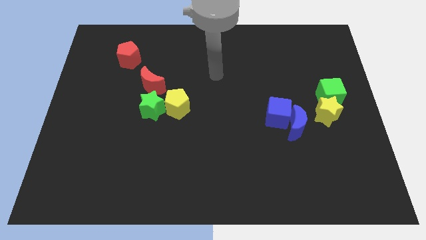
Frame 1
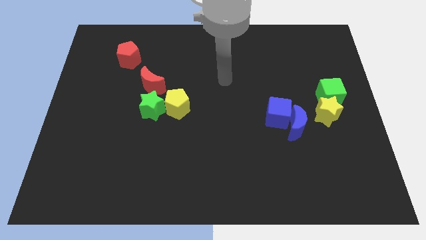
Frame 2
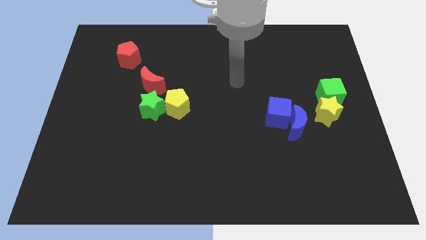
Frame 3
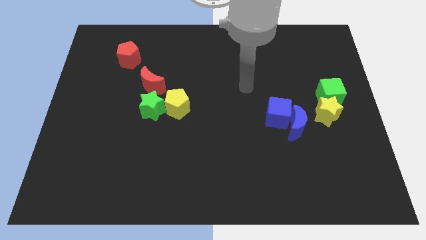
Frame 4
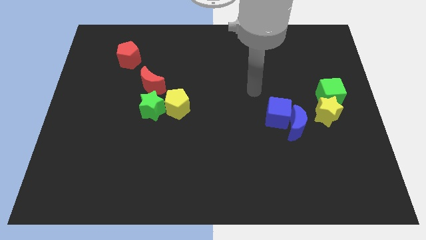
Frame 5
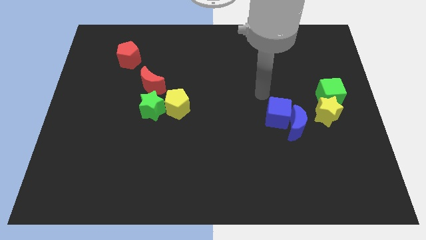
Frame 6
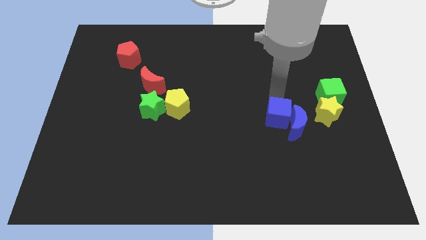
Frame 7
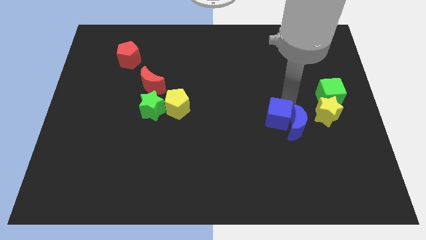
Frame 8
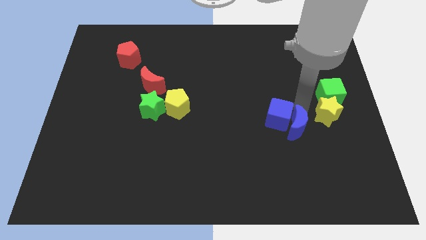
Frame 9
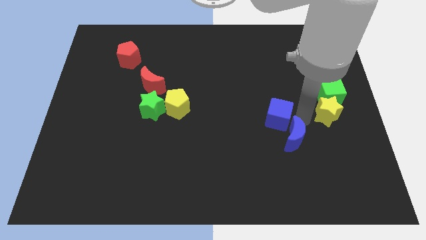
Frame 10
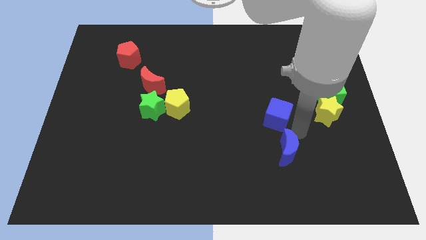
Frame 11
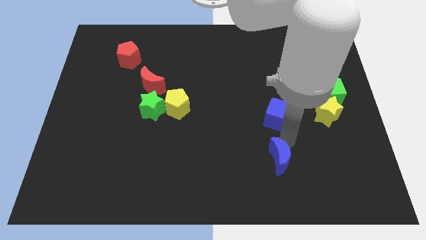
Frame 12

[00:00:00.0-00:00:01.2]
move the blue cube away from the blue moon

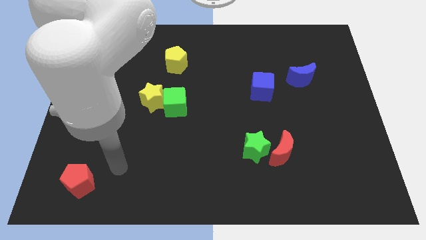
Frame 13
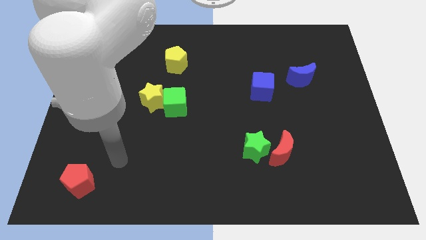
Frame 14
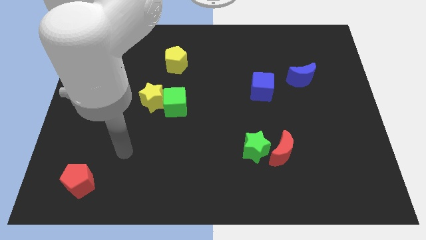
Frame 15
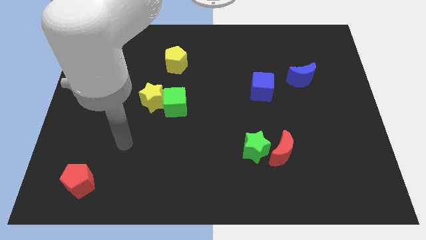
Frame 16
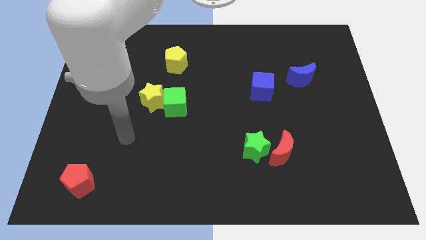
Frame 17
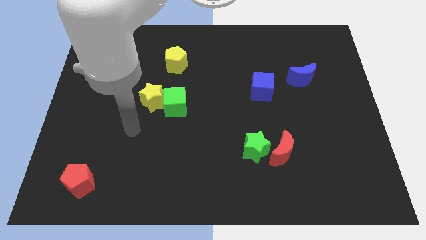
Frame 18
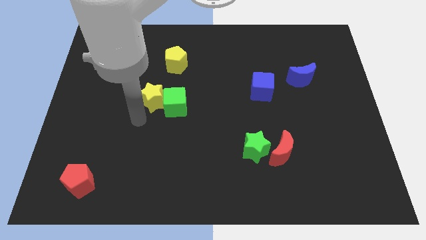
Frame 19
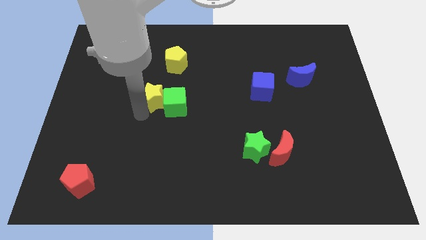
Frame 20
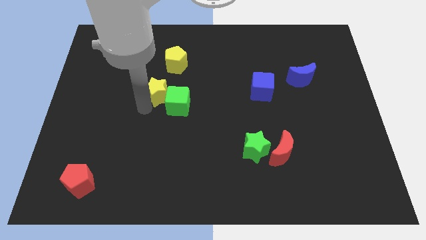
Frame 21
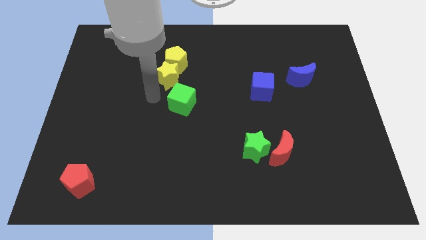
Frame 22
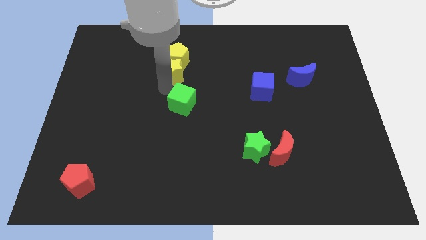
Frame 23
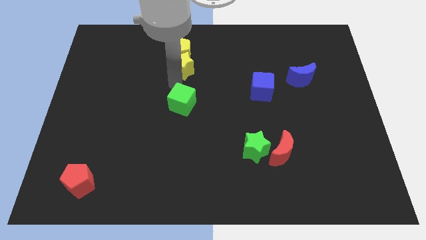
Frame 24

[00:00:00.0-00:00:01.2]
separate the green cube from the yellow star

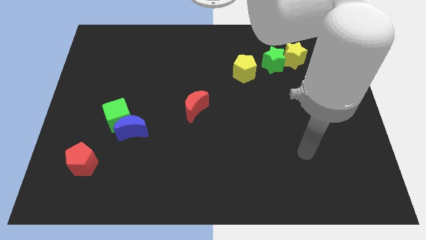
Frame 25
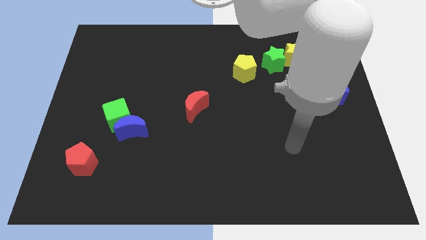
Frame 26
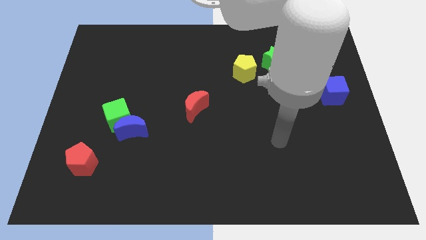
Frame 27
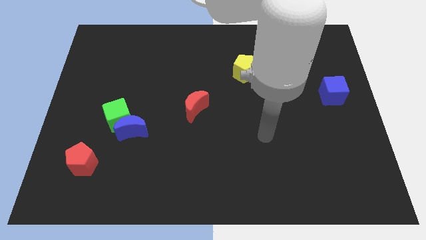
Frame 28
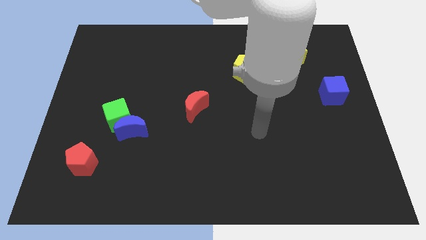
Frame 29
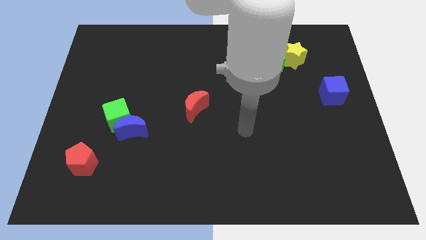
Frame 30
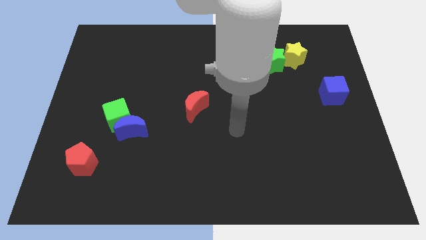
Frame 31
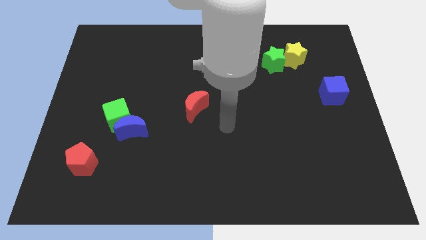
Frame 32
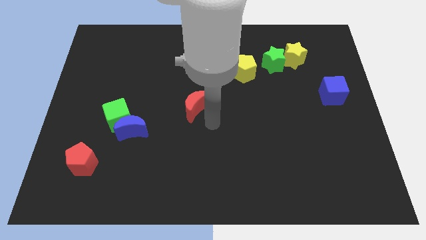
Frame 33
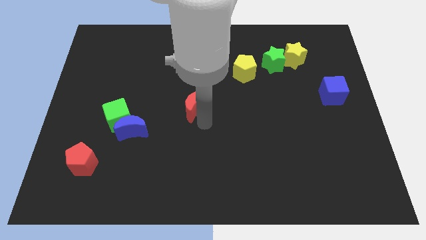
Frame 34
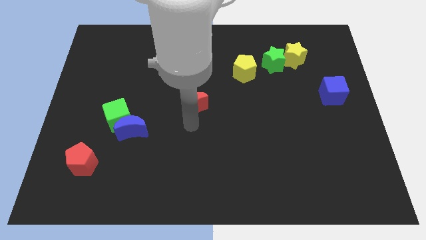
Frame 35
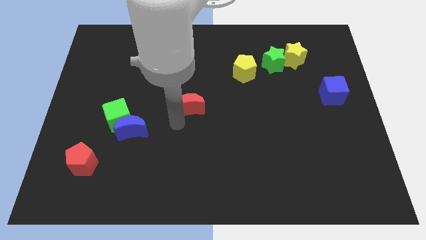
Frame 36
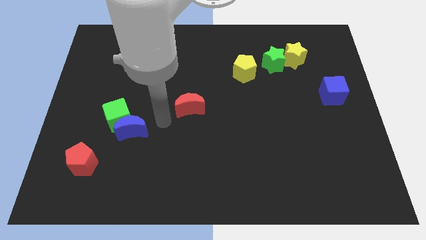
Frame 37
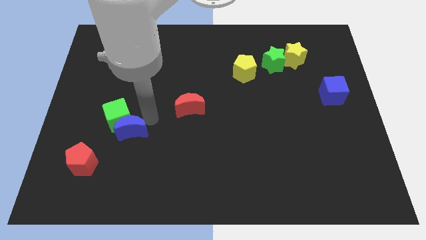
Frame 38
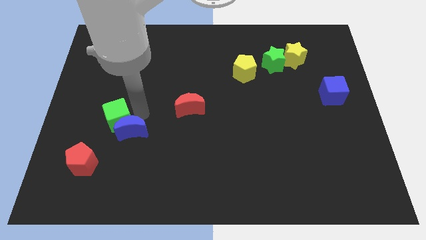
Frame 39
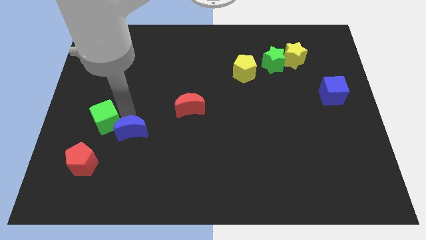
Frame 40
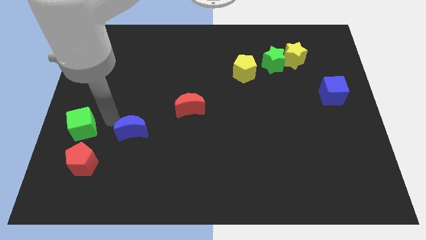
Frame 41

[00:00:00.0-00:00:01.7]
separate the blue moon from the green cube

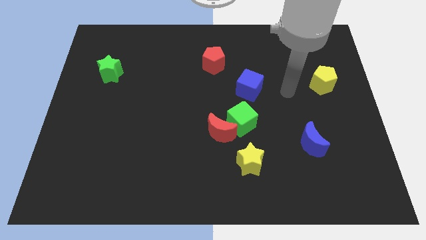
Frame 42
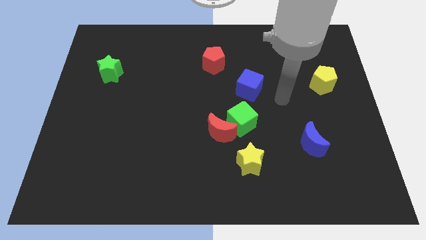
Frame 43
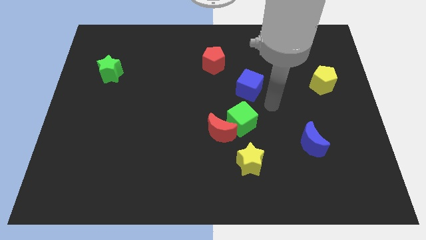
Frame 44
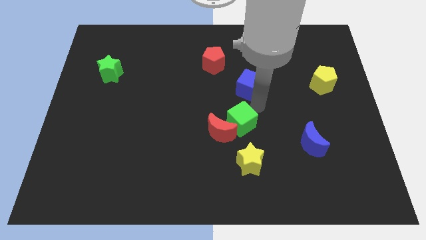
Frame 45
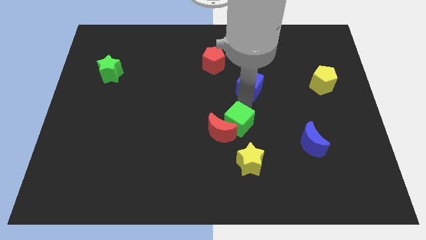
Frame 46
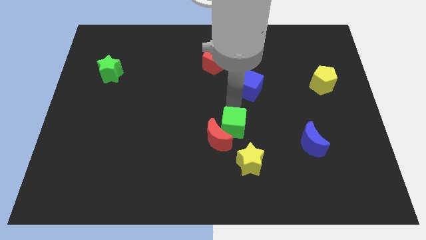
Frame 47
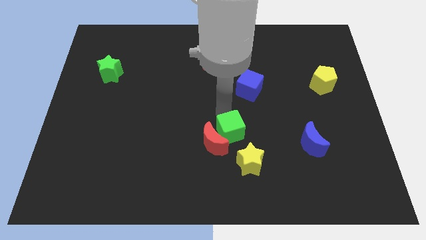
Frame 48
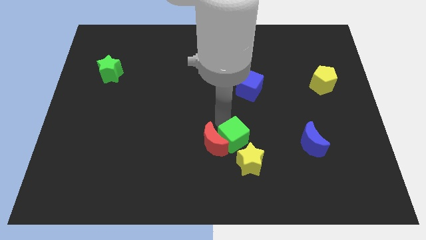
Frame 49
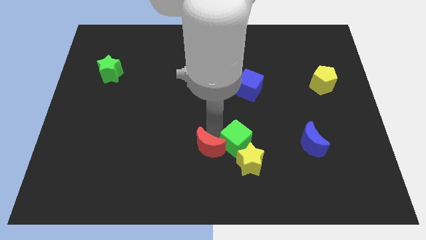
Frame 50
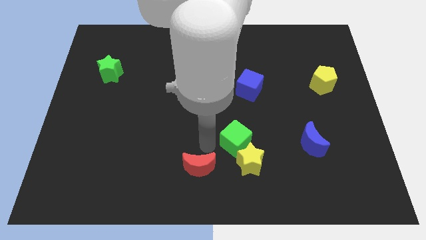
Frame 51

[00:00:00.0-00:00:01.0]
pull the green cube apart from the red moon

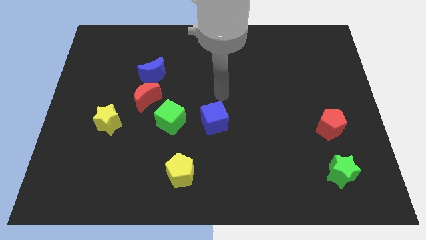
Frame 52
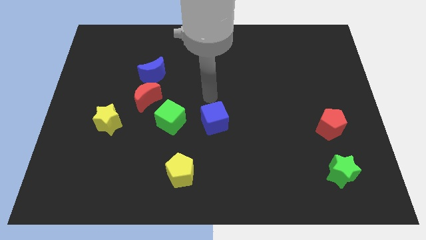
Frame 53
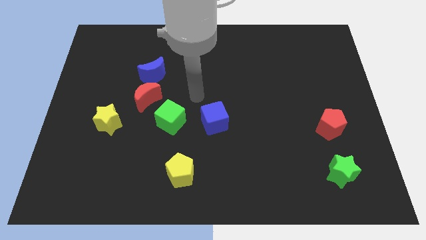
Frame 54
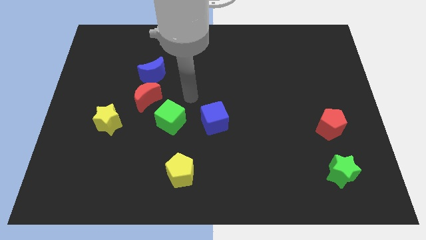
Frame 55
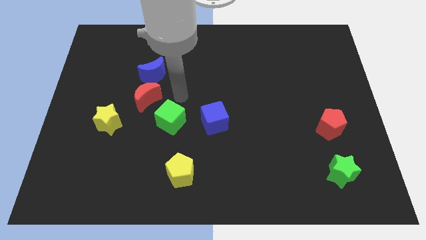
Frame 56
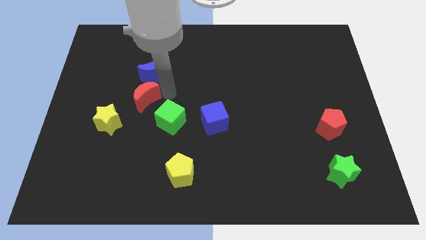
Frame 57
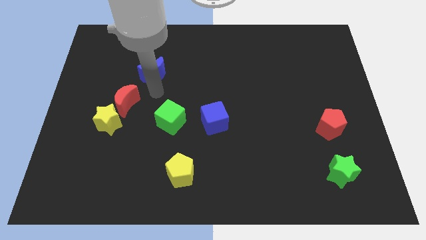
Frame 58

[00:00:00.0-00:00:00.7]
pull the blue moon apart from the red moon

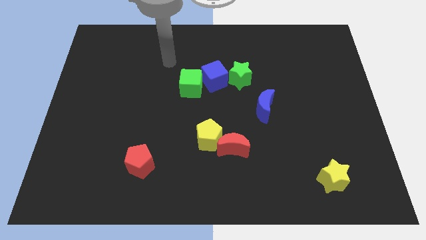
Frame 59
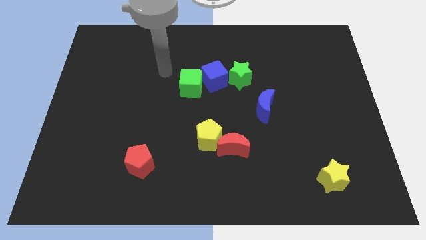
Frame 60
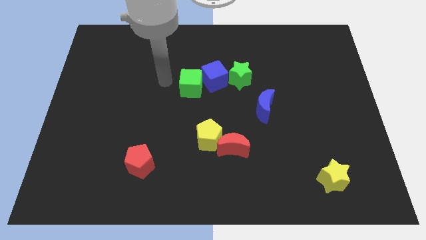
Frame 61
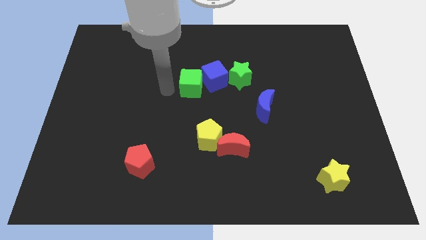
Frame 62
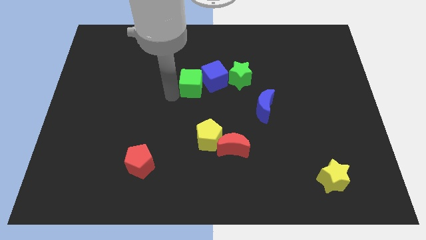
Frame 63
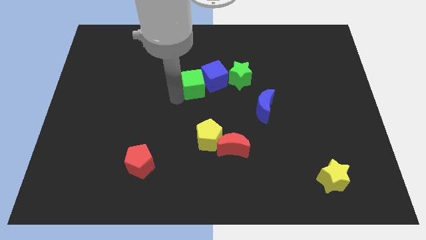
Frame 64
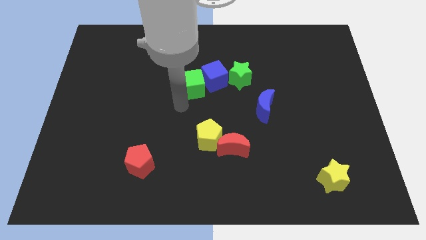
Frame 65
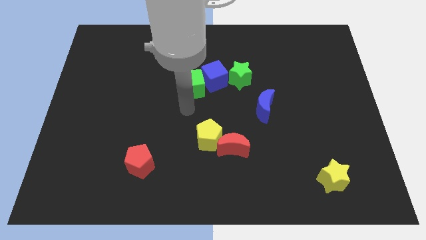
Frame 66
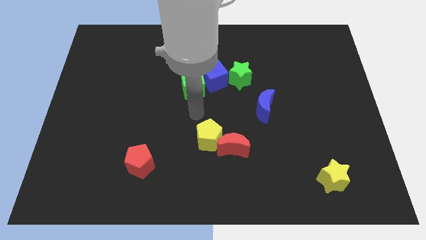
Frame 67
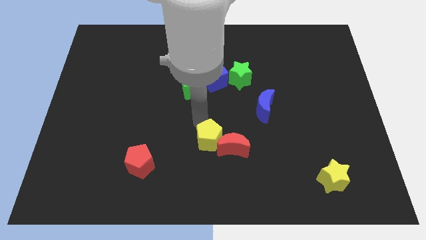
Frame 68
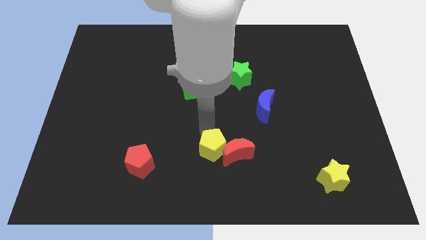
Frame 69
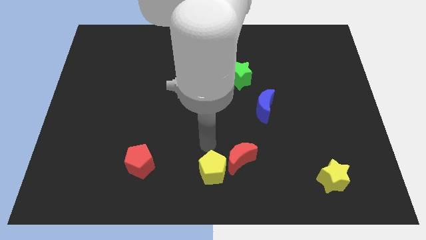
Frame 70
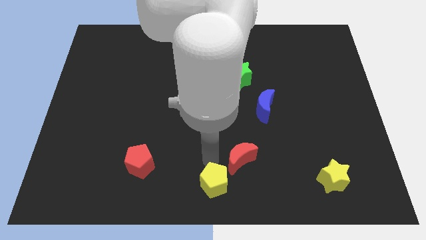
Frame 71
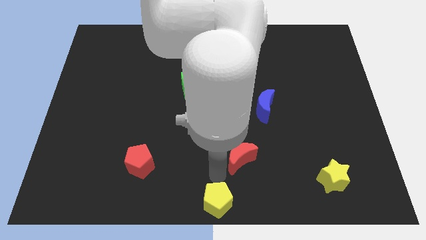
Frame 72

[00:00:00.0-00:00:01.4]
move the red moon away from the yellow pentagon

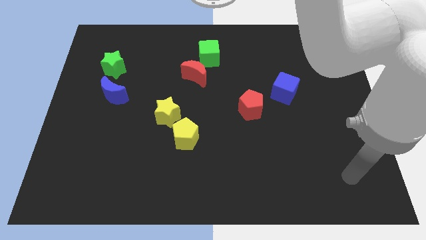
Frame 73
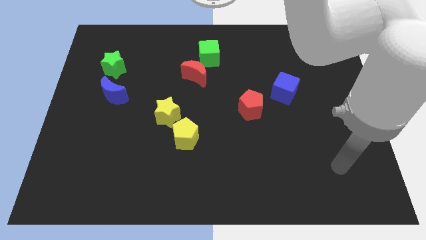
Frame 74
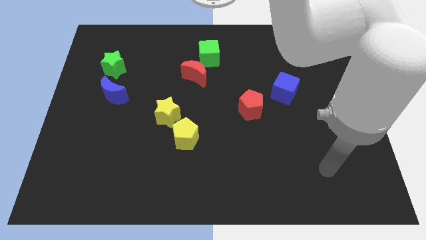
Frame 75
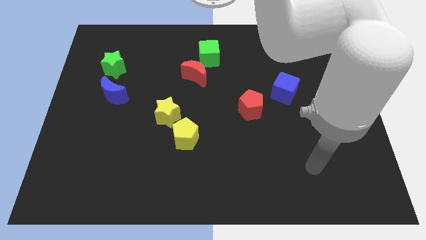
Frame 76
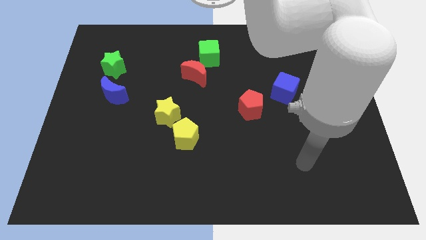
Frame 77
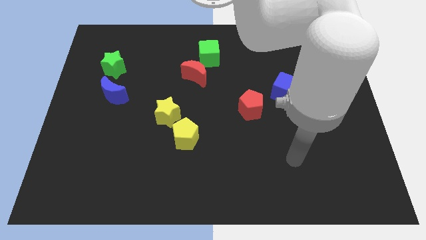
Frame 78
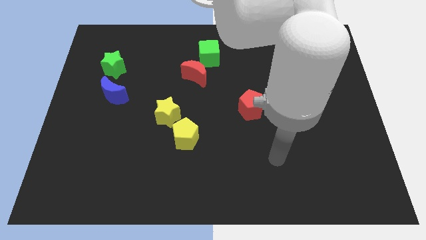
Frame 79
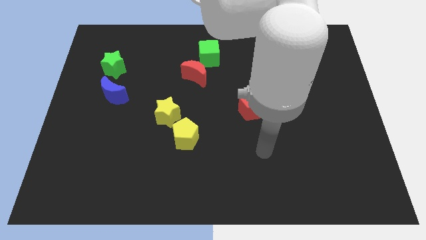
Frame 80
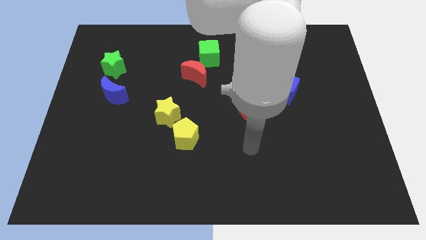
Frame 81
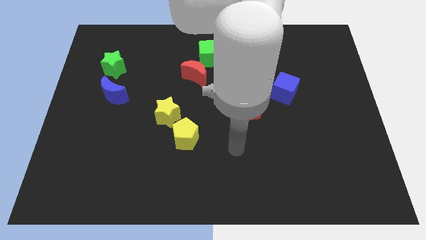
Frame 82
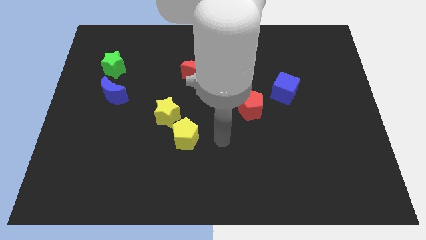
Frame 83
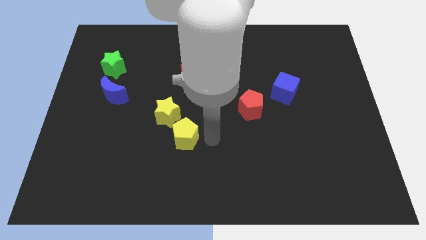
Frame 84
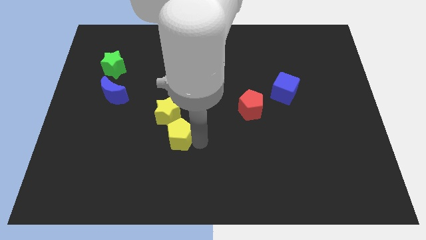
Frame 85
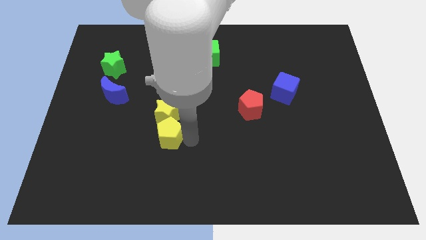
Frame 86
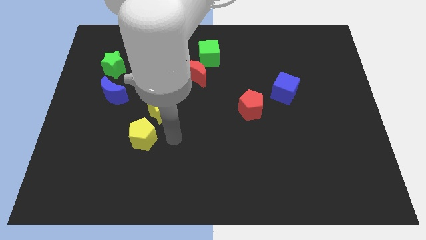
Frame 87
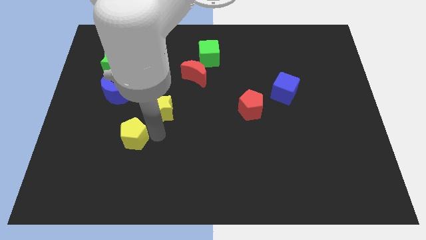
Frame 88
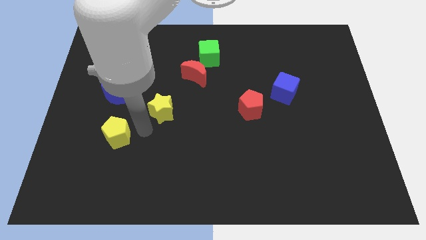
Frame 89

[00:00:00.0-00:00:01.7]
move the yellow star away from the yellow pentagon

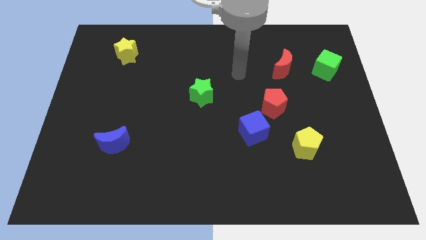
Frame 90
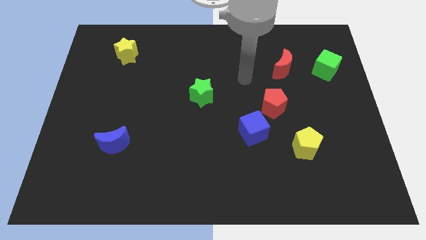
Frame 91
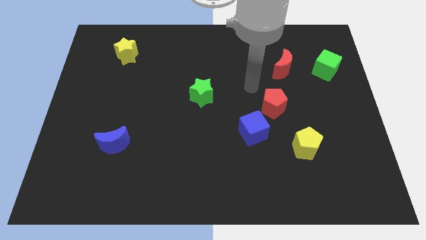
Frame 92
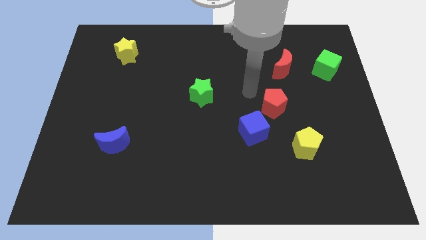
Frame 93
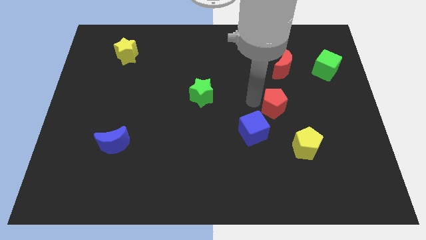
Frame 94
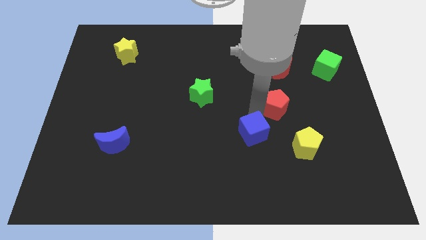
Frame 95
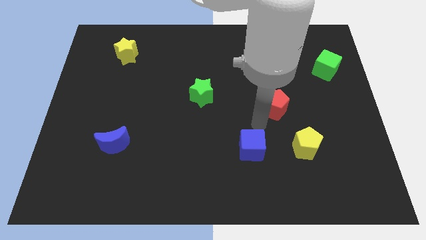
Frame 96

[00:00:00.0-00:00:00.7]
pull the red pentagon apart from the blue cube
